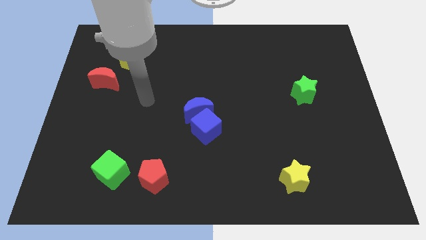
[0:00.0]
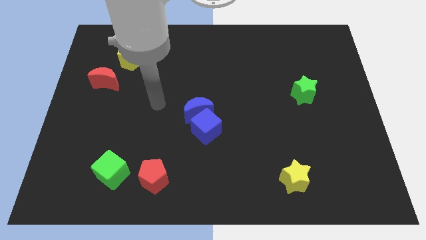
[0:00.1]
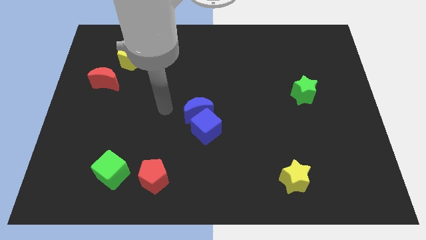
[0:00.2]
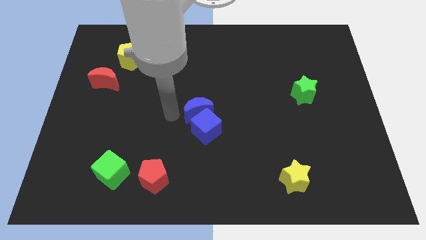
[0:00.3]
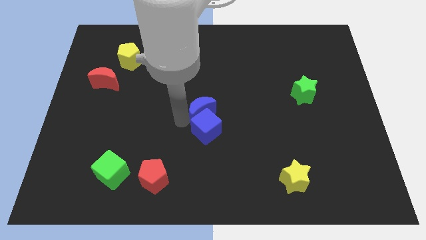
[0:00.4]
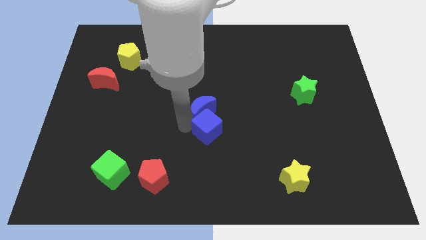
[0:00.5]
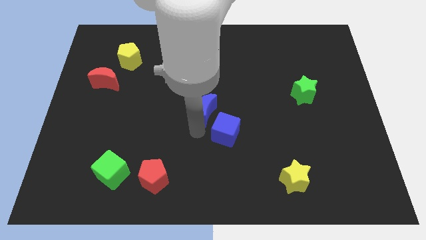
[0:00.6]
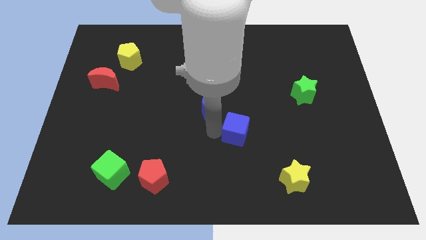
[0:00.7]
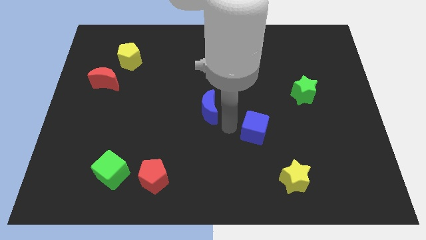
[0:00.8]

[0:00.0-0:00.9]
move the blue moon away from the blue cube

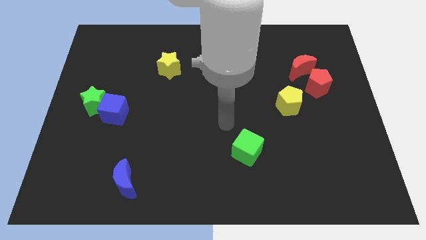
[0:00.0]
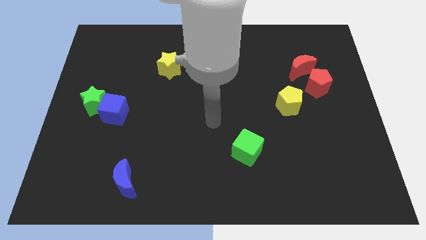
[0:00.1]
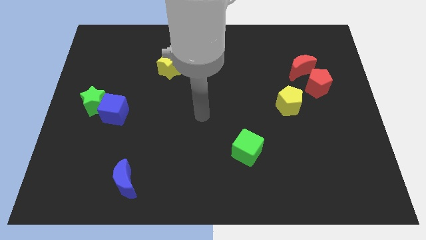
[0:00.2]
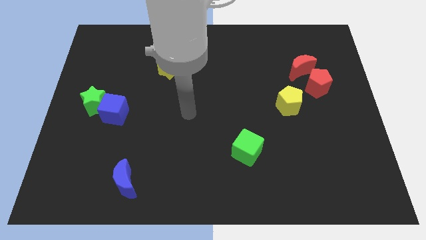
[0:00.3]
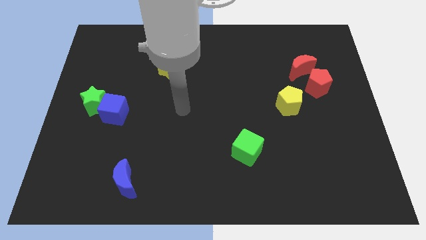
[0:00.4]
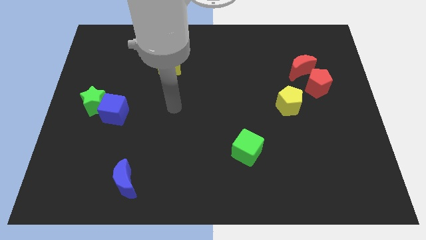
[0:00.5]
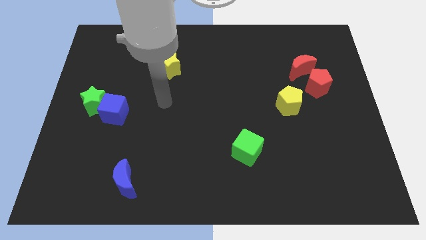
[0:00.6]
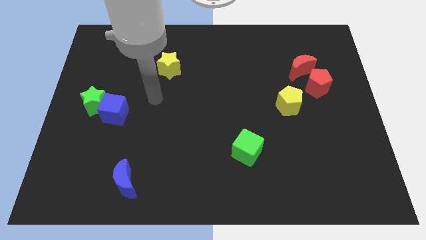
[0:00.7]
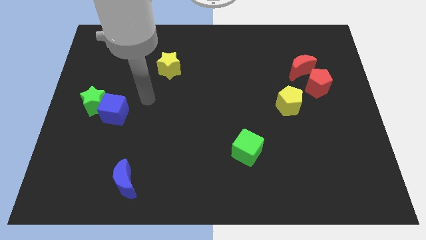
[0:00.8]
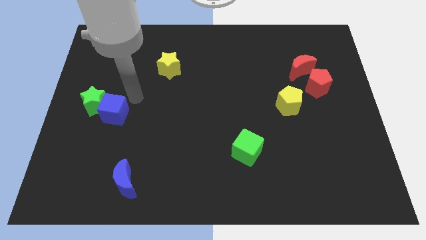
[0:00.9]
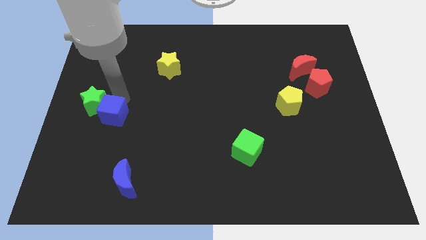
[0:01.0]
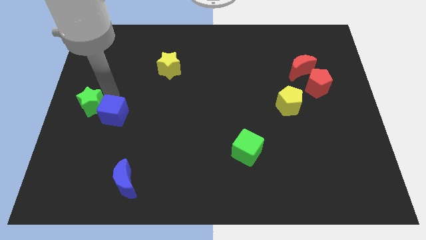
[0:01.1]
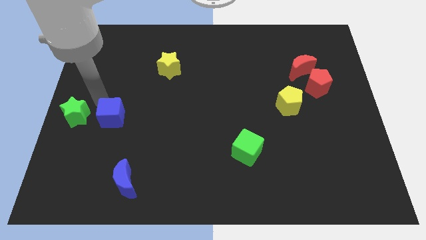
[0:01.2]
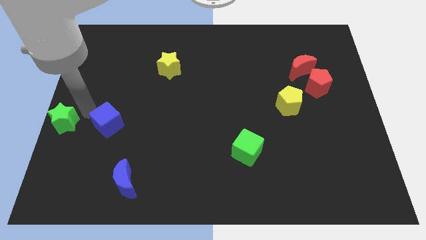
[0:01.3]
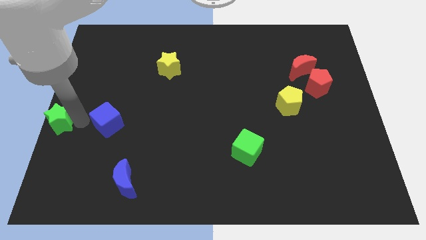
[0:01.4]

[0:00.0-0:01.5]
move the blue cube away from the green star

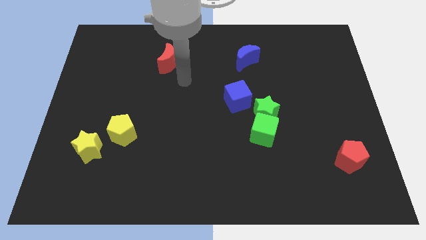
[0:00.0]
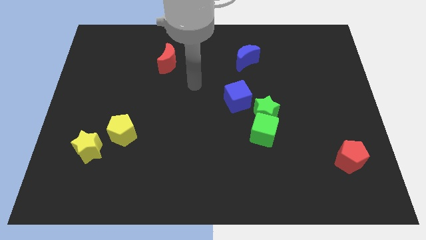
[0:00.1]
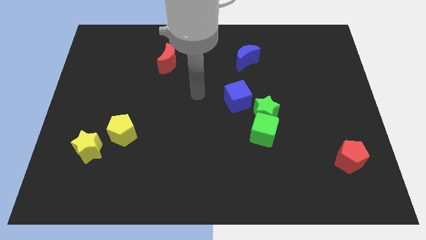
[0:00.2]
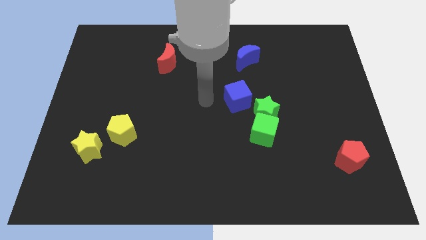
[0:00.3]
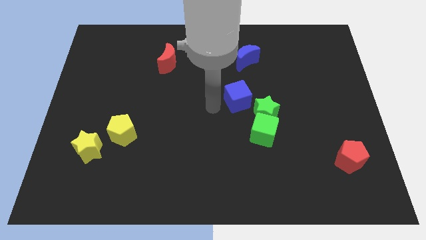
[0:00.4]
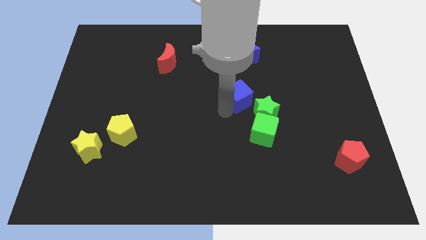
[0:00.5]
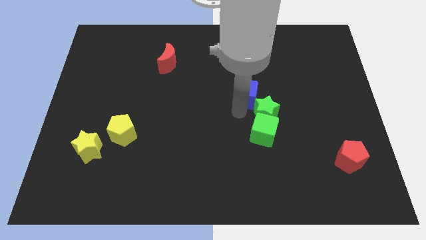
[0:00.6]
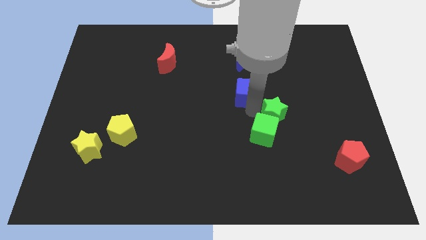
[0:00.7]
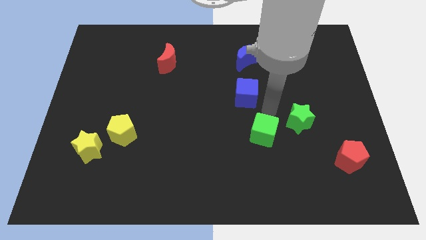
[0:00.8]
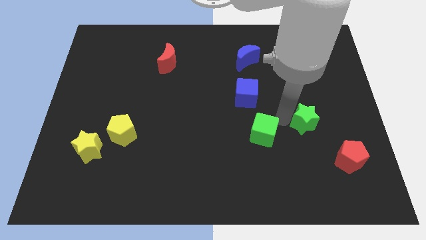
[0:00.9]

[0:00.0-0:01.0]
move the green cube away from the green star

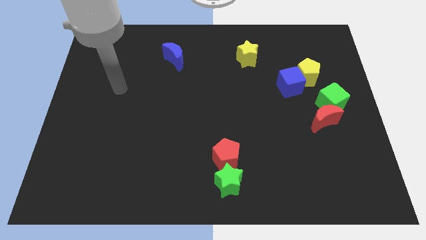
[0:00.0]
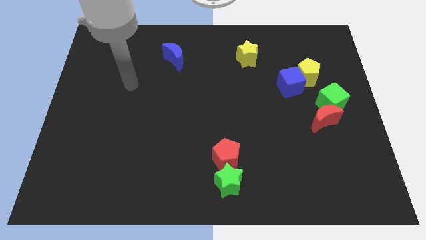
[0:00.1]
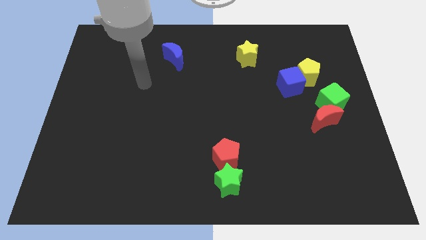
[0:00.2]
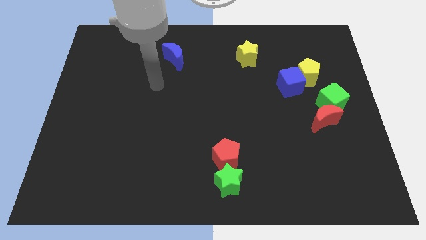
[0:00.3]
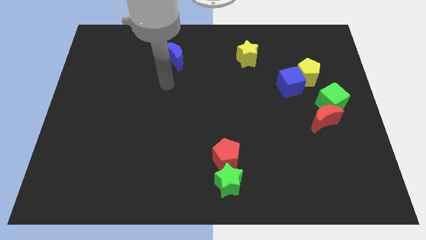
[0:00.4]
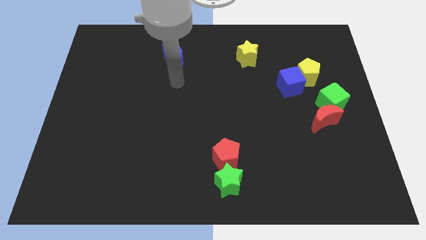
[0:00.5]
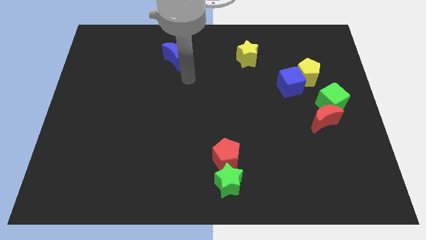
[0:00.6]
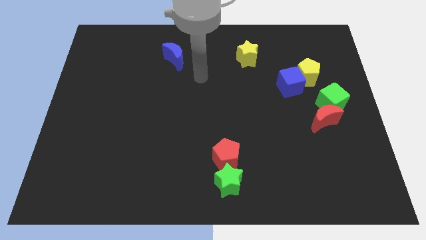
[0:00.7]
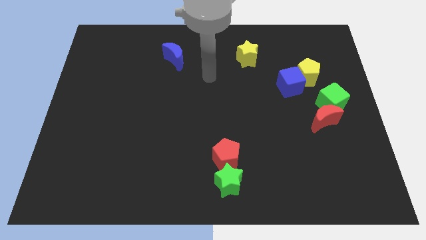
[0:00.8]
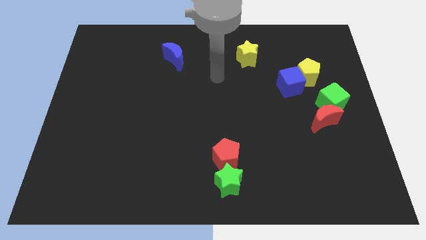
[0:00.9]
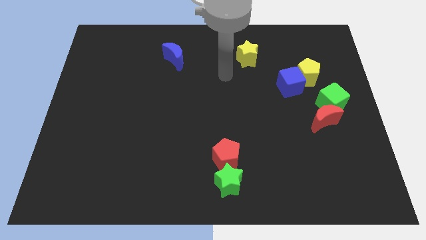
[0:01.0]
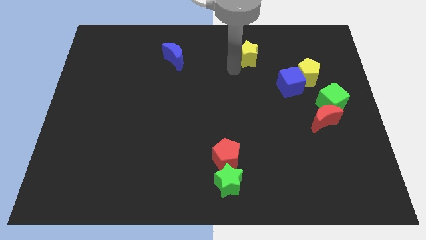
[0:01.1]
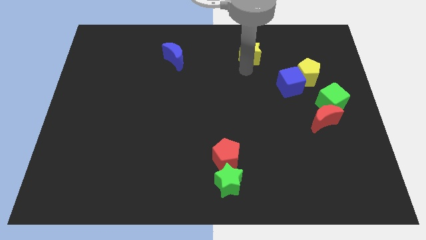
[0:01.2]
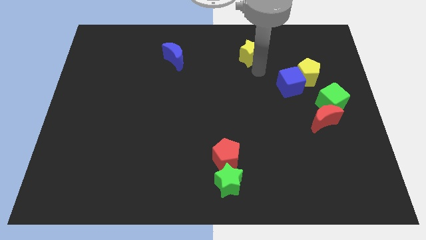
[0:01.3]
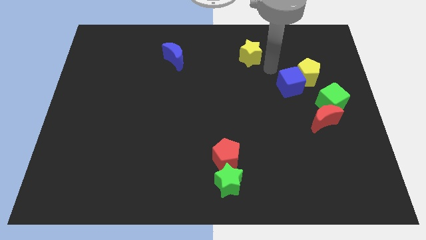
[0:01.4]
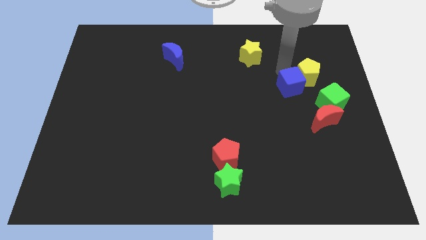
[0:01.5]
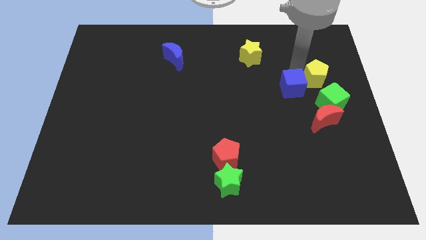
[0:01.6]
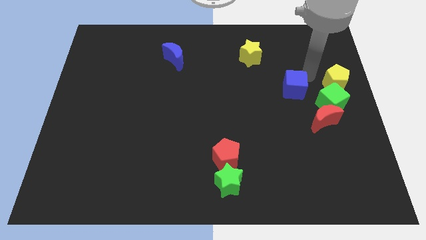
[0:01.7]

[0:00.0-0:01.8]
separate the blue cube from the yellow pentagon

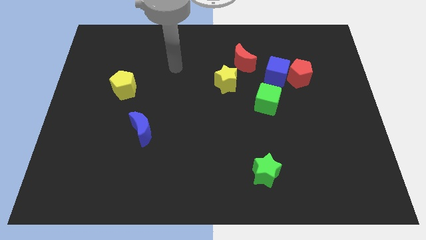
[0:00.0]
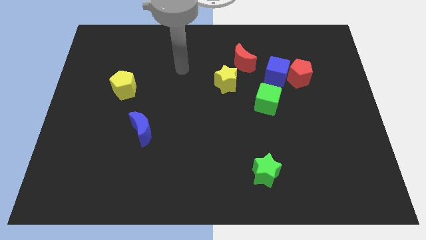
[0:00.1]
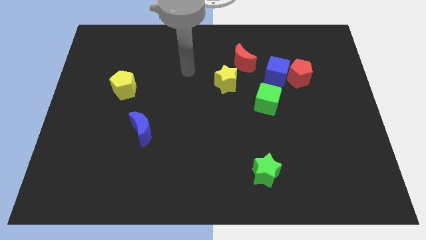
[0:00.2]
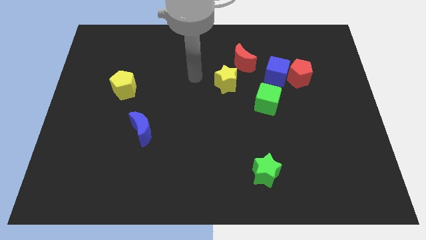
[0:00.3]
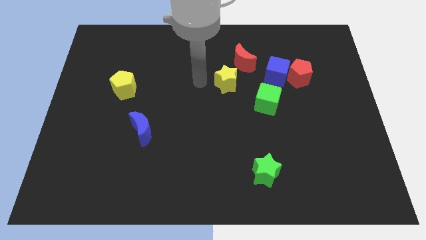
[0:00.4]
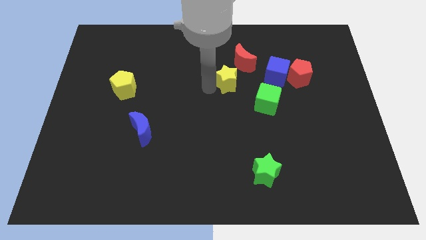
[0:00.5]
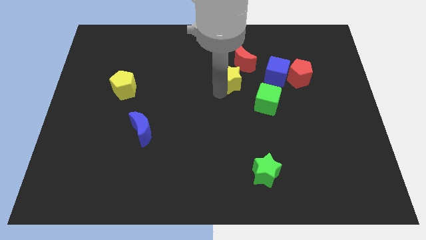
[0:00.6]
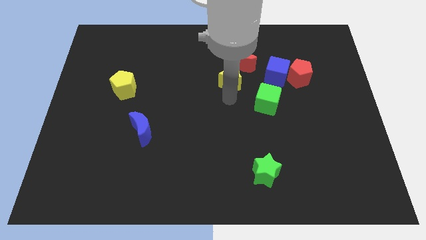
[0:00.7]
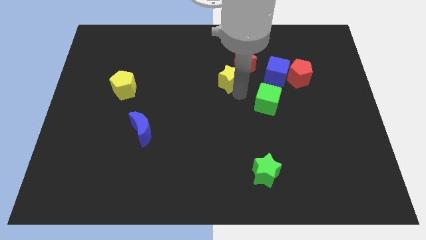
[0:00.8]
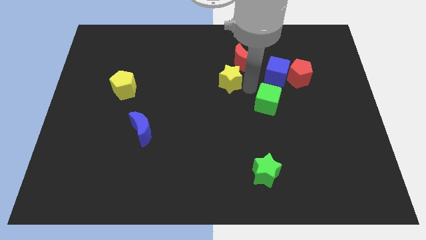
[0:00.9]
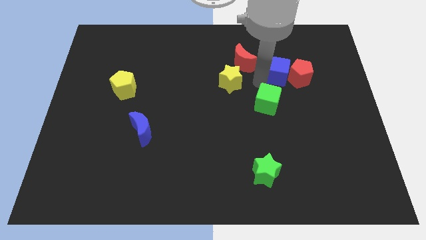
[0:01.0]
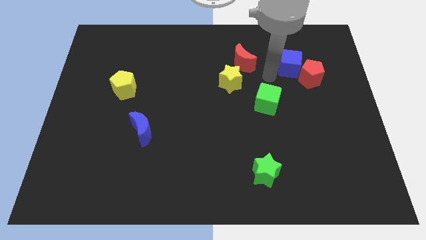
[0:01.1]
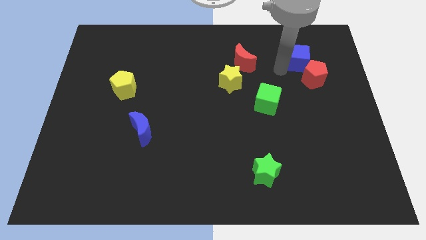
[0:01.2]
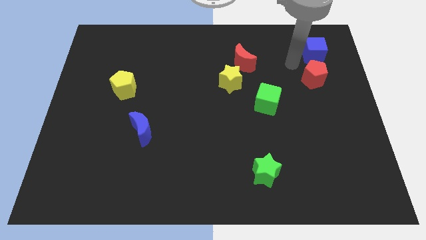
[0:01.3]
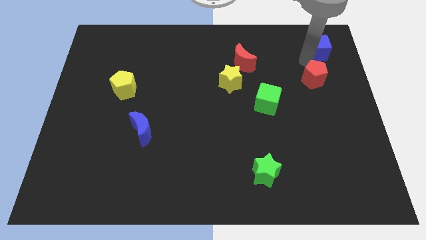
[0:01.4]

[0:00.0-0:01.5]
move the red pentagon away from the blue cube

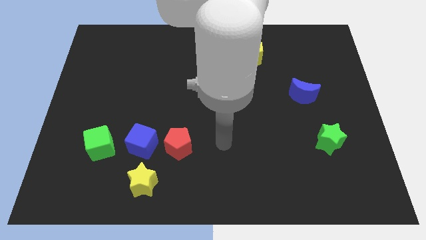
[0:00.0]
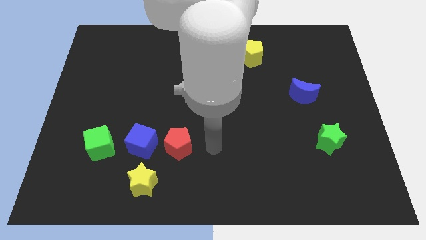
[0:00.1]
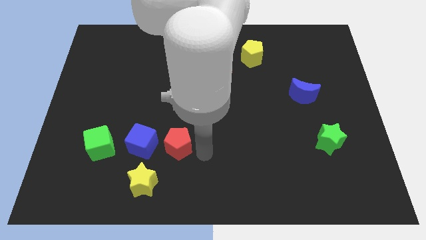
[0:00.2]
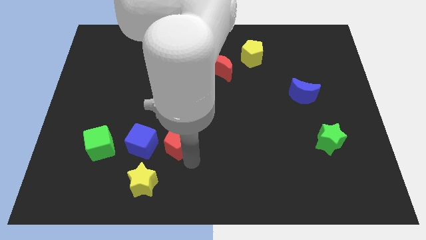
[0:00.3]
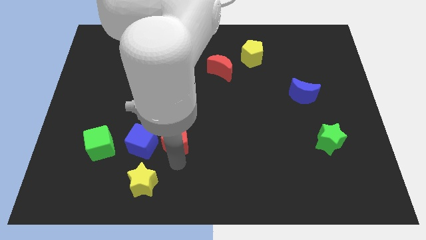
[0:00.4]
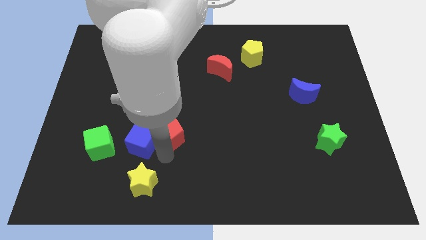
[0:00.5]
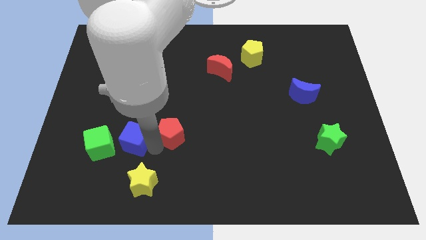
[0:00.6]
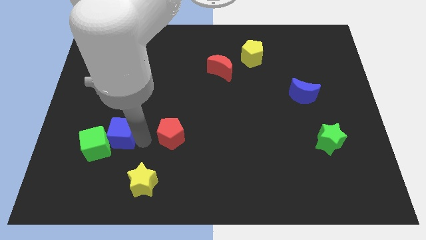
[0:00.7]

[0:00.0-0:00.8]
pull the red pentagon apart from the blue cube

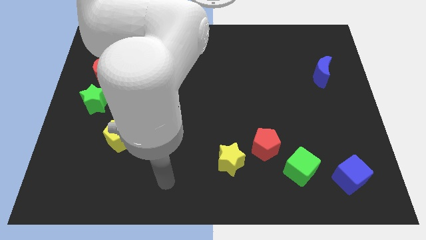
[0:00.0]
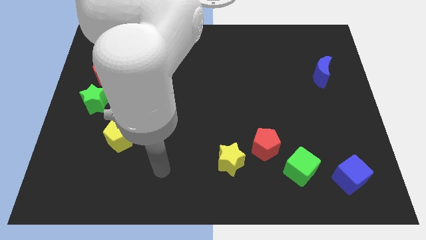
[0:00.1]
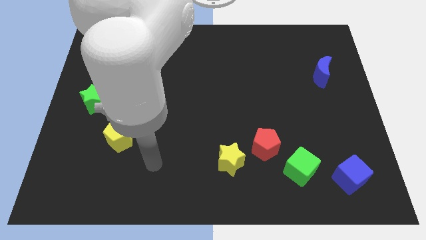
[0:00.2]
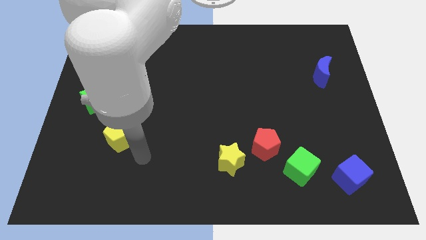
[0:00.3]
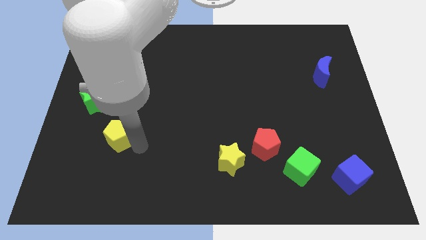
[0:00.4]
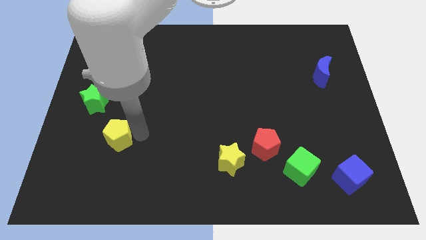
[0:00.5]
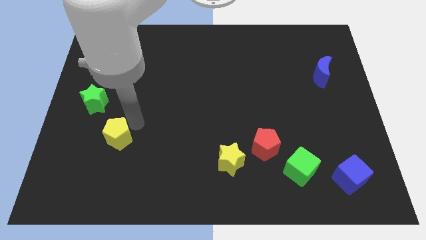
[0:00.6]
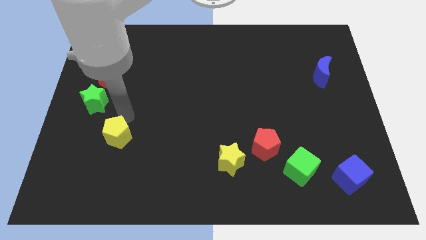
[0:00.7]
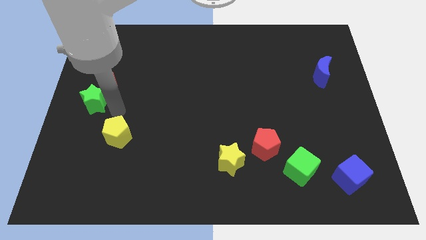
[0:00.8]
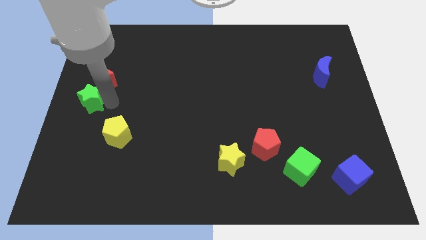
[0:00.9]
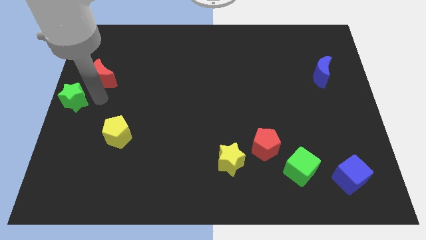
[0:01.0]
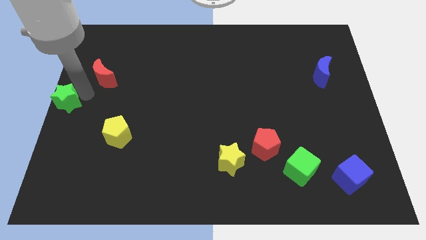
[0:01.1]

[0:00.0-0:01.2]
move the red moon away from the green star

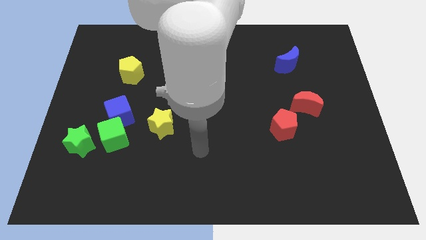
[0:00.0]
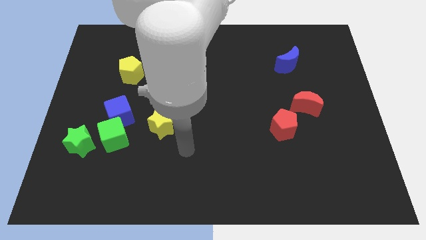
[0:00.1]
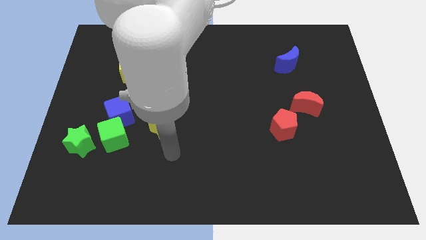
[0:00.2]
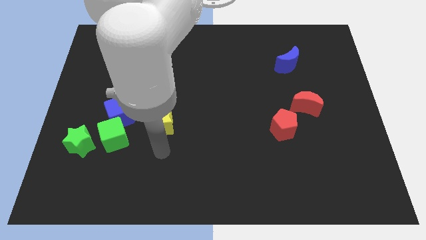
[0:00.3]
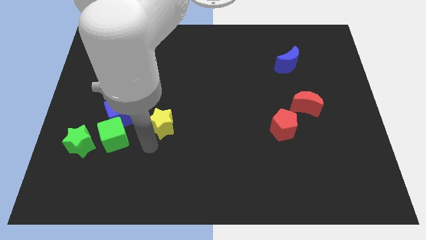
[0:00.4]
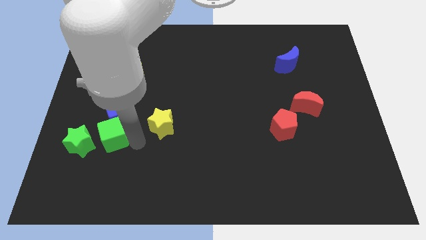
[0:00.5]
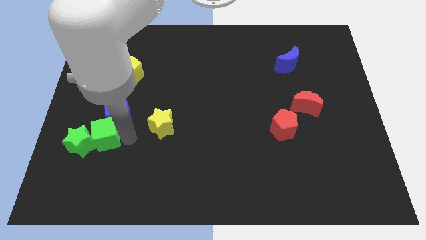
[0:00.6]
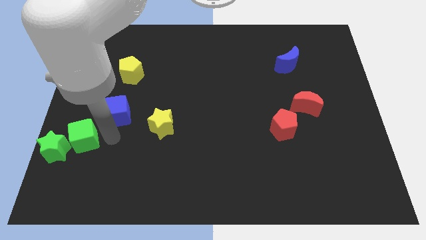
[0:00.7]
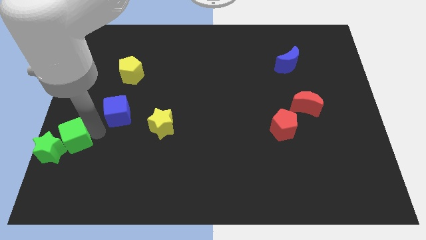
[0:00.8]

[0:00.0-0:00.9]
move the blue cube away from the green cube
